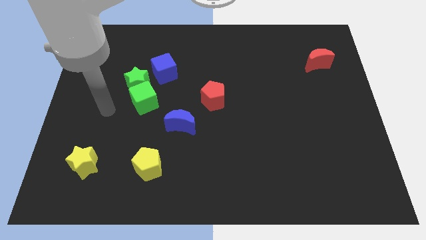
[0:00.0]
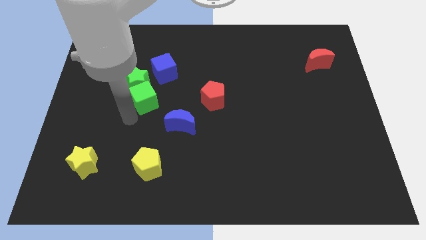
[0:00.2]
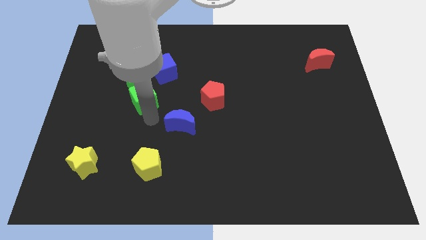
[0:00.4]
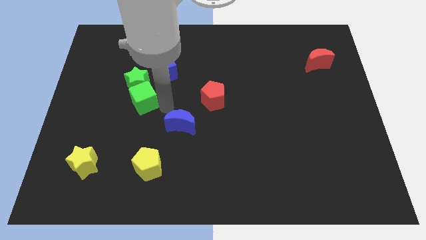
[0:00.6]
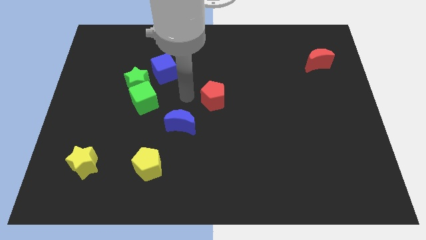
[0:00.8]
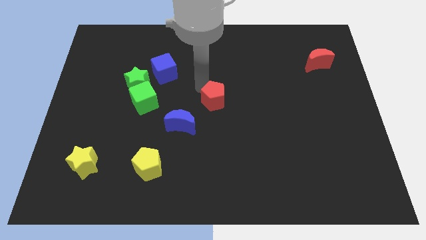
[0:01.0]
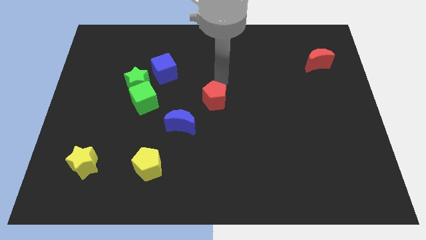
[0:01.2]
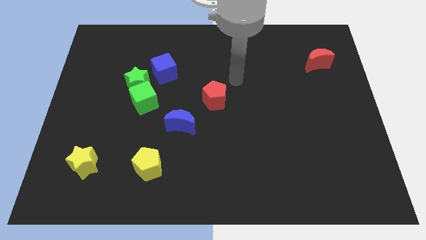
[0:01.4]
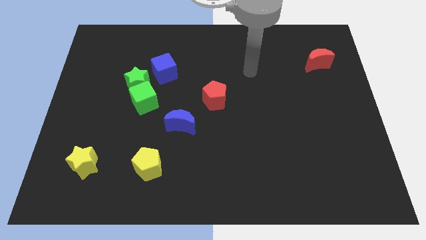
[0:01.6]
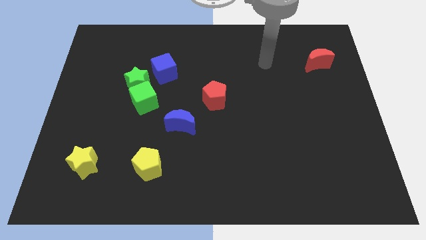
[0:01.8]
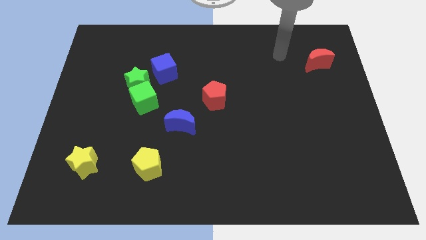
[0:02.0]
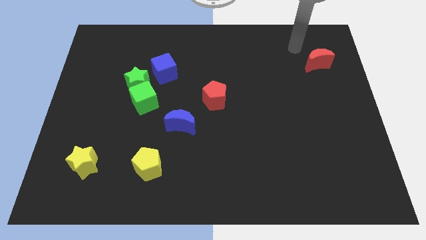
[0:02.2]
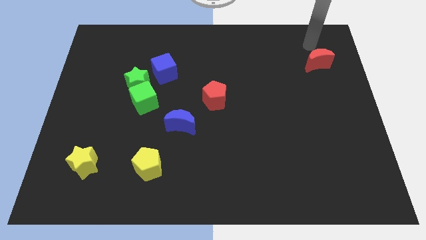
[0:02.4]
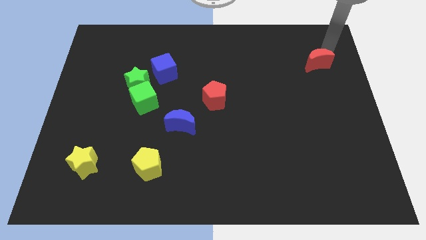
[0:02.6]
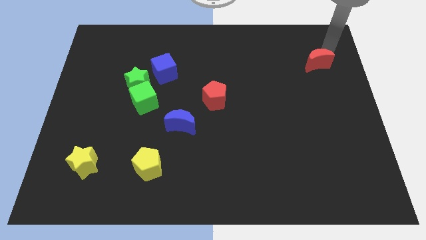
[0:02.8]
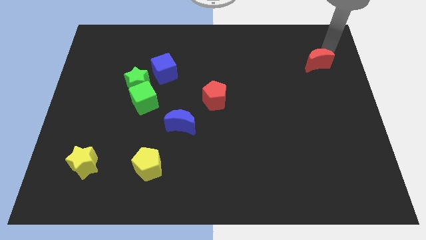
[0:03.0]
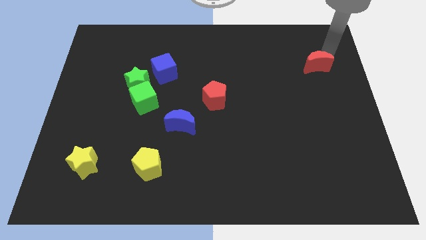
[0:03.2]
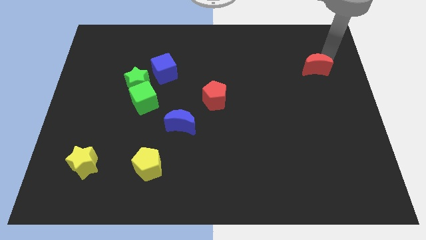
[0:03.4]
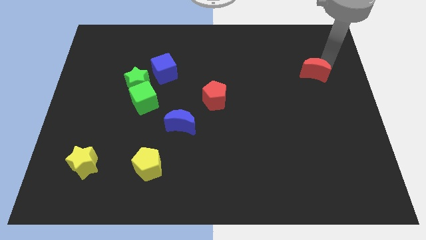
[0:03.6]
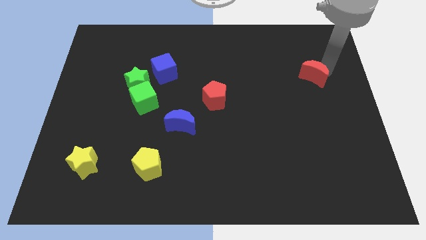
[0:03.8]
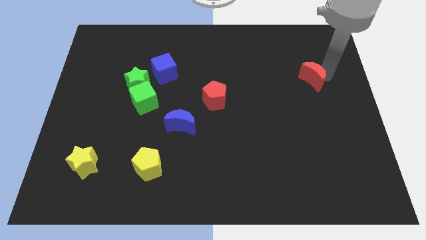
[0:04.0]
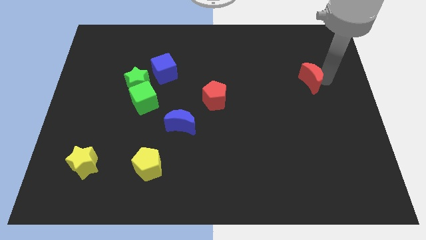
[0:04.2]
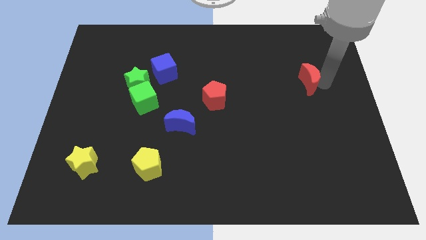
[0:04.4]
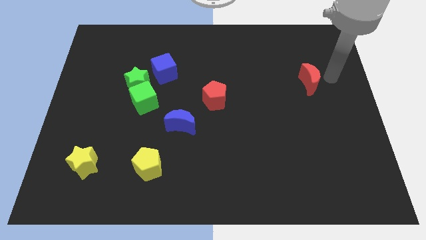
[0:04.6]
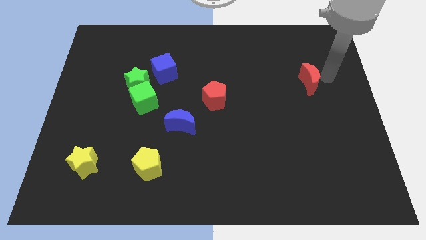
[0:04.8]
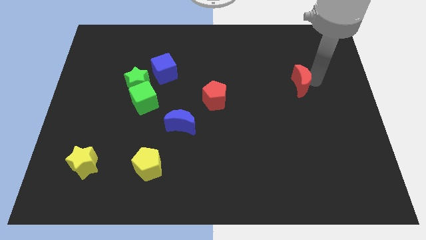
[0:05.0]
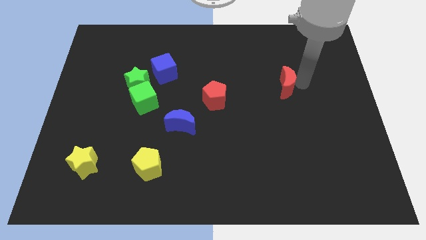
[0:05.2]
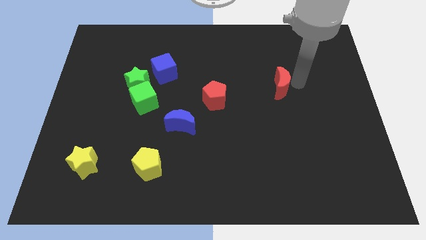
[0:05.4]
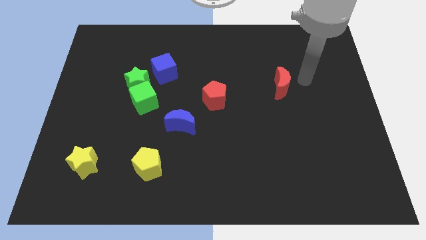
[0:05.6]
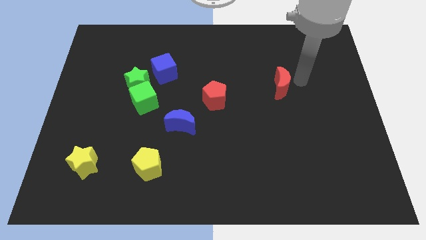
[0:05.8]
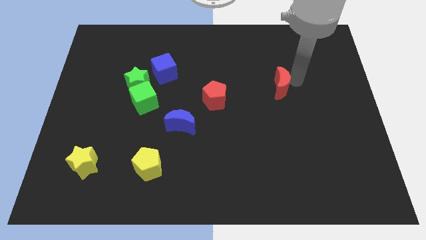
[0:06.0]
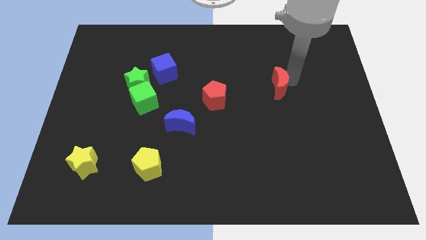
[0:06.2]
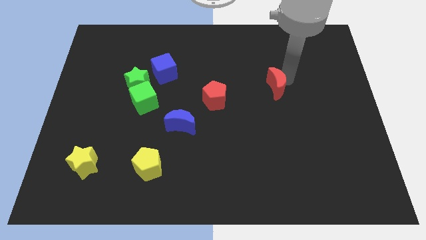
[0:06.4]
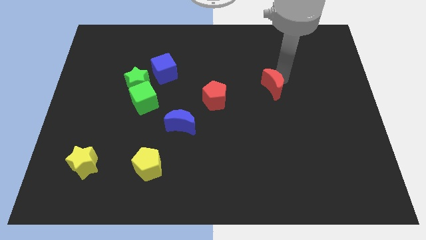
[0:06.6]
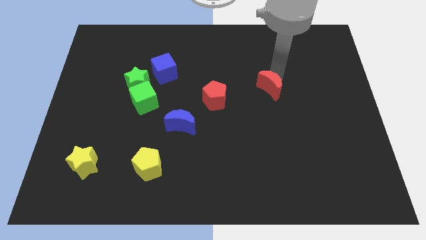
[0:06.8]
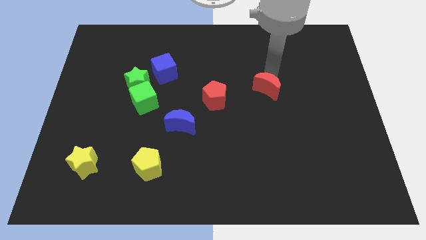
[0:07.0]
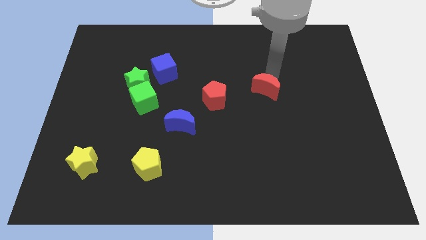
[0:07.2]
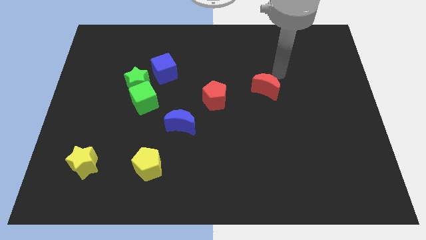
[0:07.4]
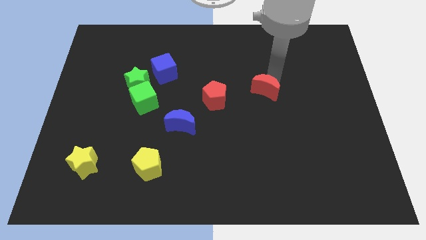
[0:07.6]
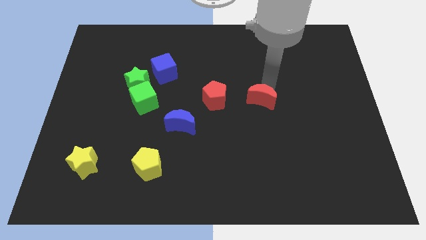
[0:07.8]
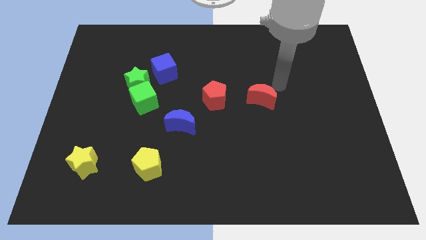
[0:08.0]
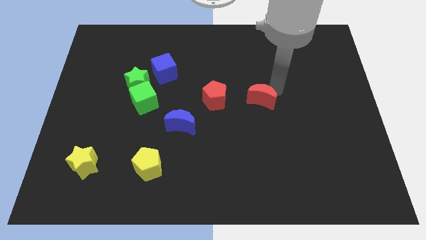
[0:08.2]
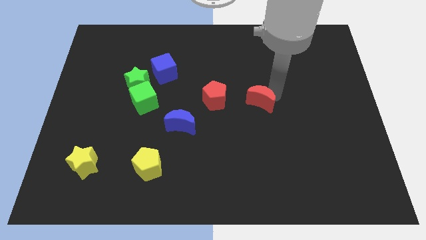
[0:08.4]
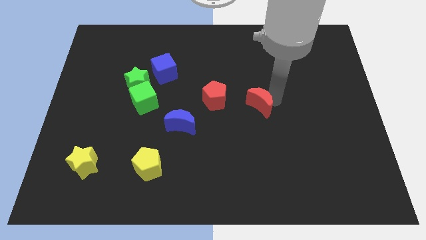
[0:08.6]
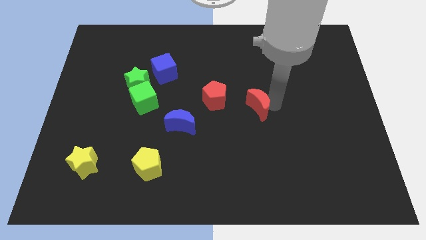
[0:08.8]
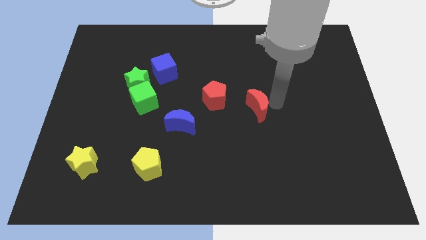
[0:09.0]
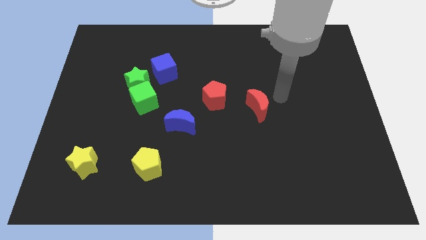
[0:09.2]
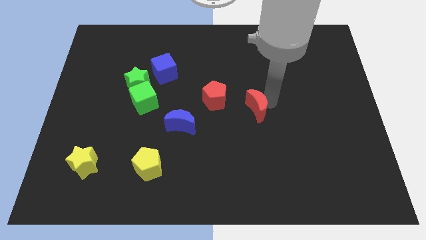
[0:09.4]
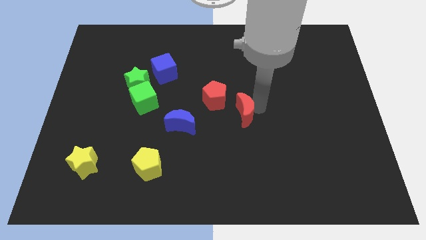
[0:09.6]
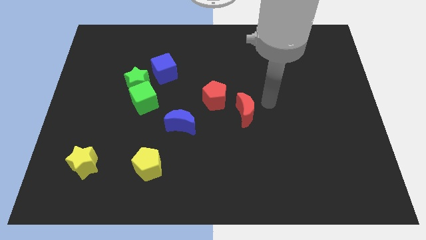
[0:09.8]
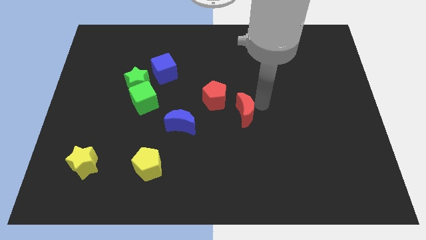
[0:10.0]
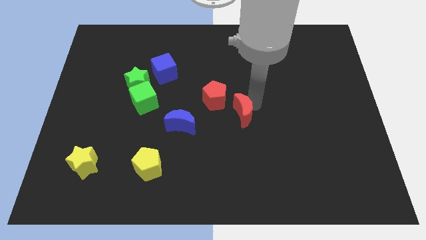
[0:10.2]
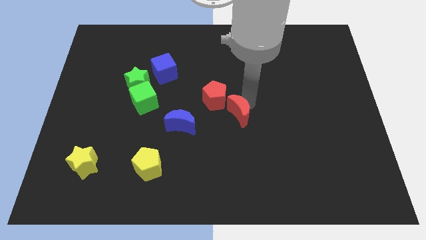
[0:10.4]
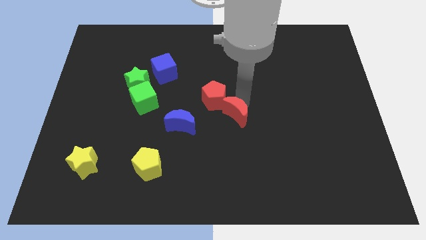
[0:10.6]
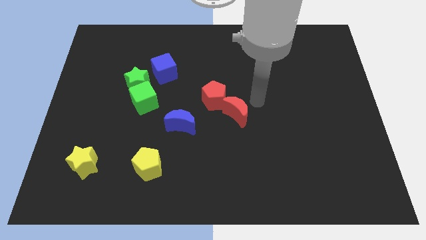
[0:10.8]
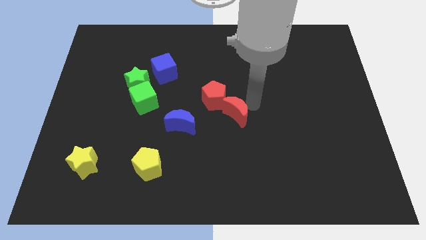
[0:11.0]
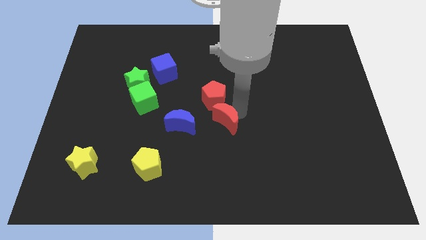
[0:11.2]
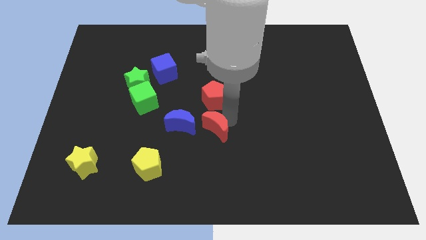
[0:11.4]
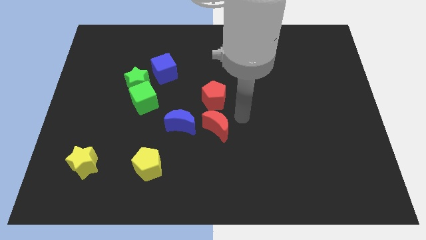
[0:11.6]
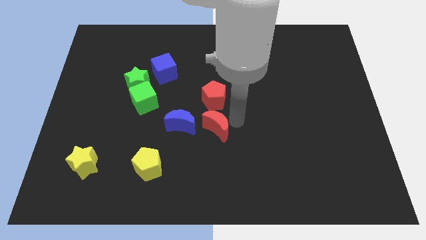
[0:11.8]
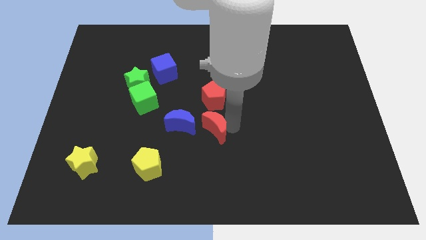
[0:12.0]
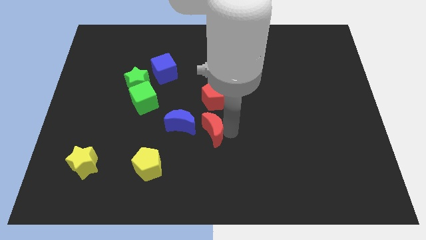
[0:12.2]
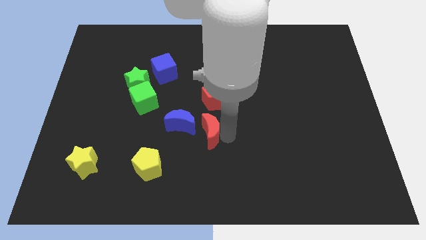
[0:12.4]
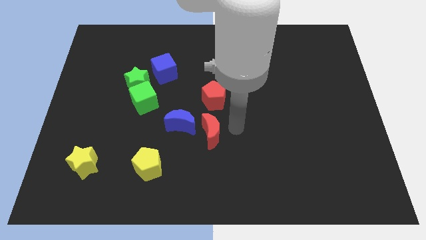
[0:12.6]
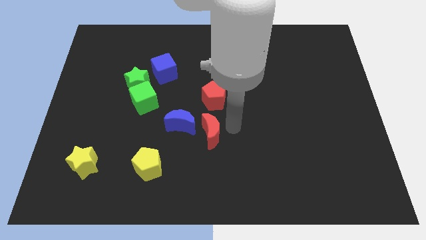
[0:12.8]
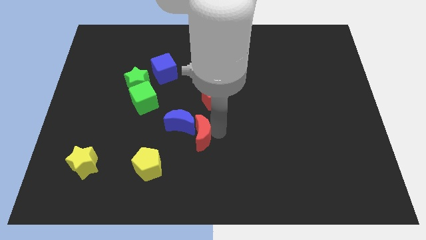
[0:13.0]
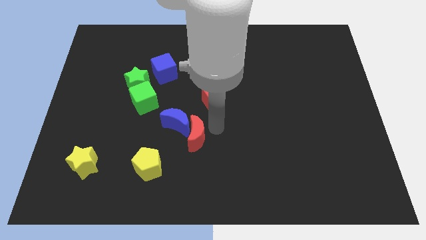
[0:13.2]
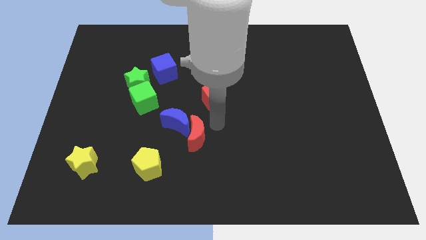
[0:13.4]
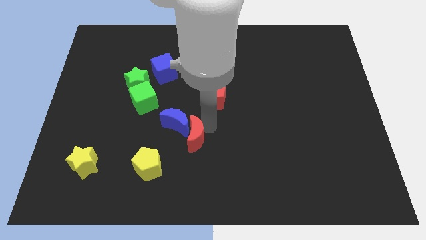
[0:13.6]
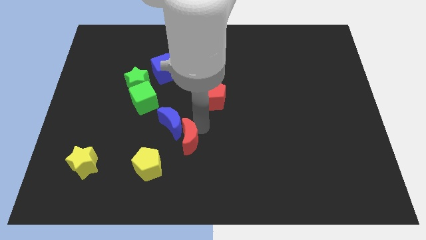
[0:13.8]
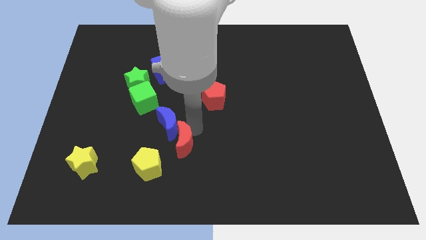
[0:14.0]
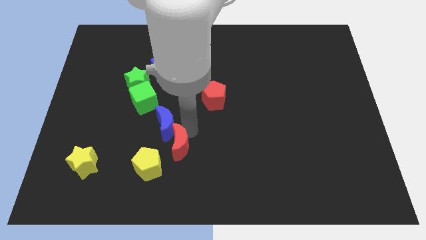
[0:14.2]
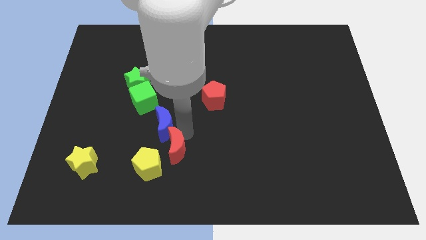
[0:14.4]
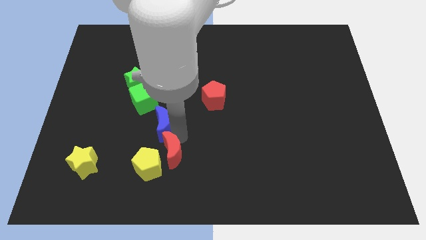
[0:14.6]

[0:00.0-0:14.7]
slide the red moon to the yellow pentagon
